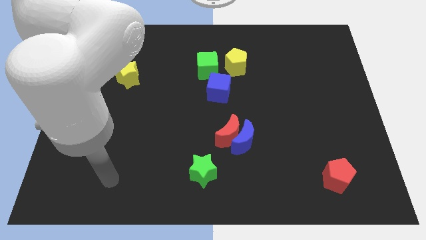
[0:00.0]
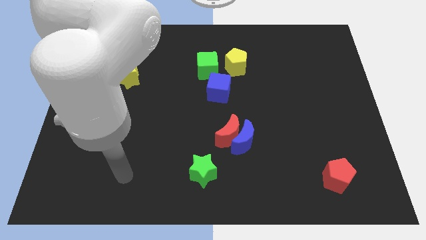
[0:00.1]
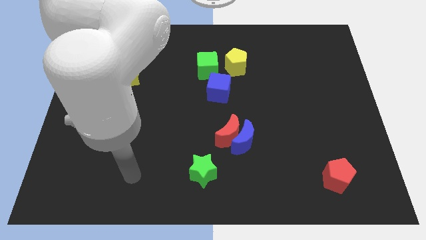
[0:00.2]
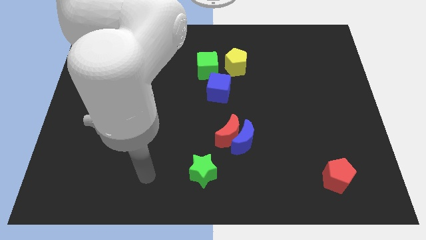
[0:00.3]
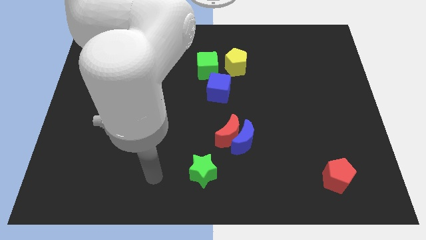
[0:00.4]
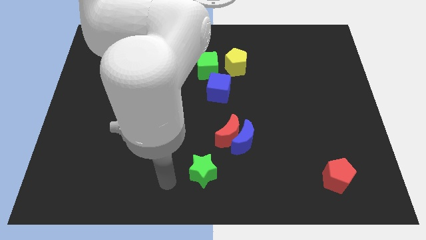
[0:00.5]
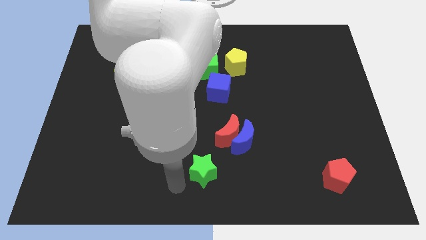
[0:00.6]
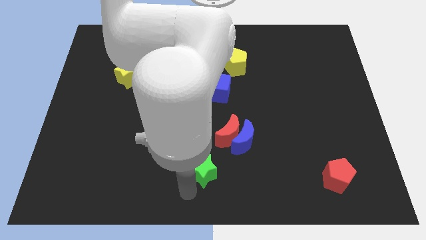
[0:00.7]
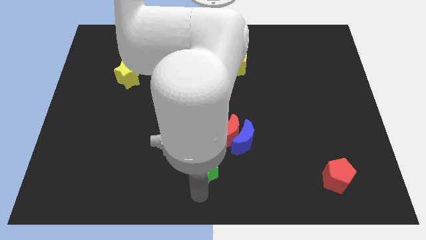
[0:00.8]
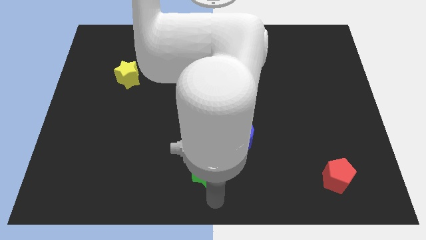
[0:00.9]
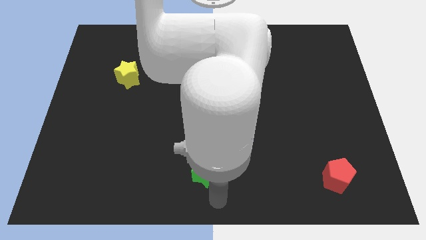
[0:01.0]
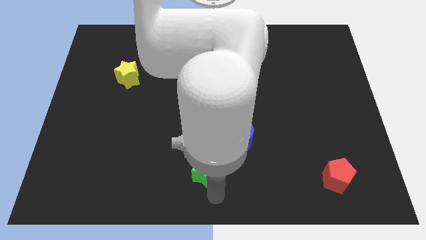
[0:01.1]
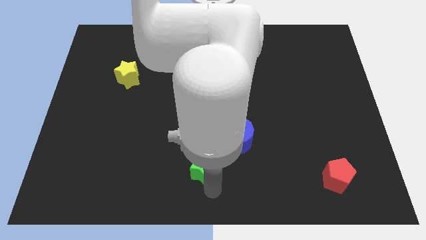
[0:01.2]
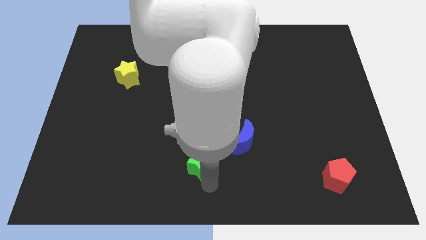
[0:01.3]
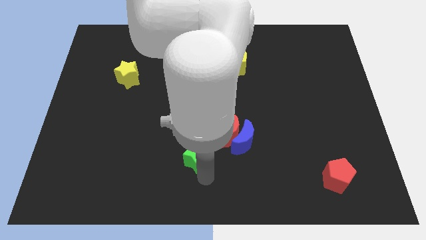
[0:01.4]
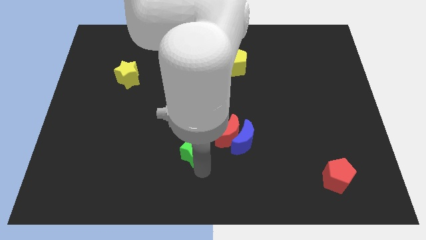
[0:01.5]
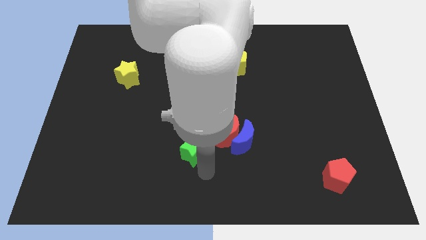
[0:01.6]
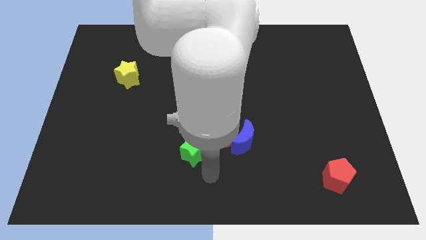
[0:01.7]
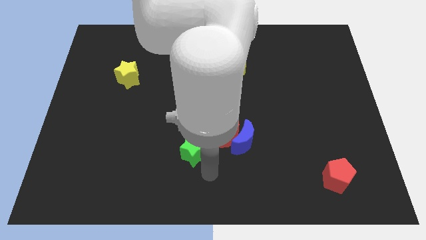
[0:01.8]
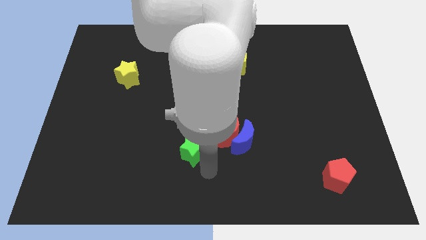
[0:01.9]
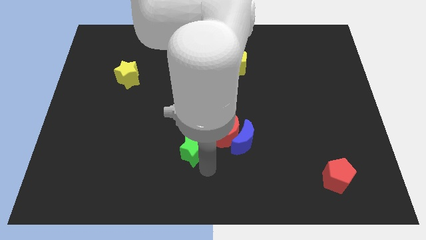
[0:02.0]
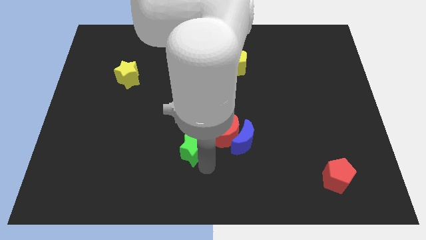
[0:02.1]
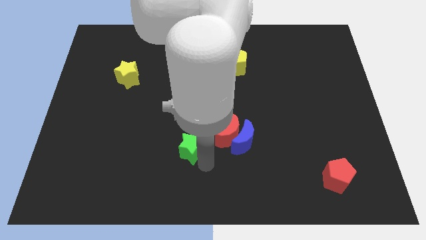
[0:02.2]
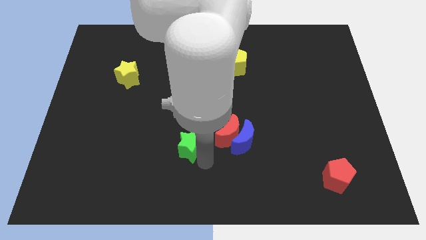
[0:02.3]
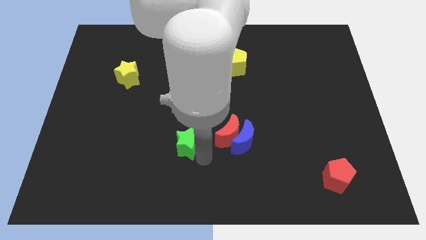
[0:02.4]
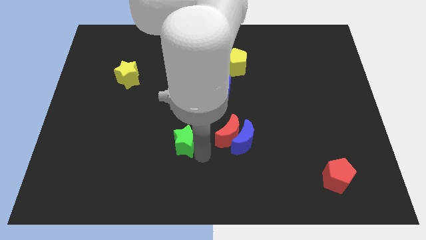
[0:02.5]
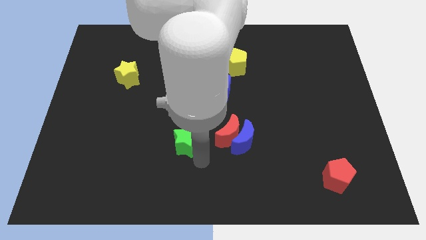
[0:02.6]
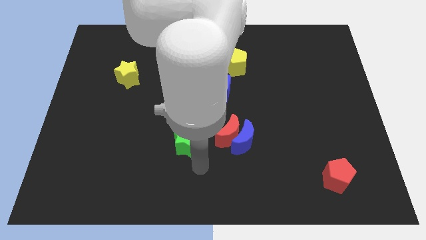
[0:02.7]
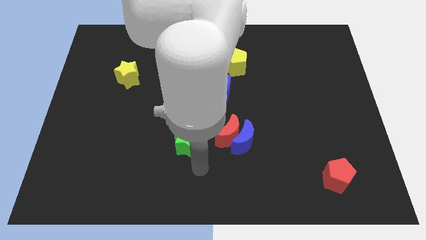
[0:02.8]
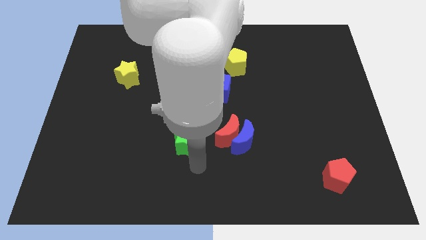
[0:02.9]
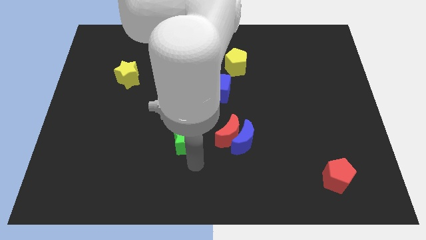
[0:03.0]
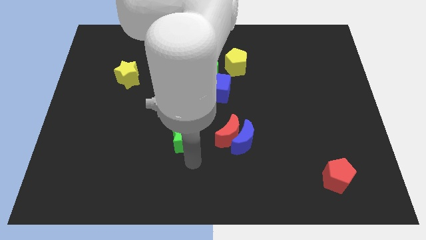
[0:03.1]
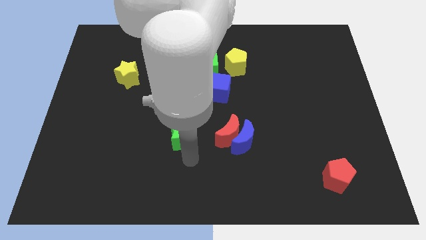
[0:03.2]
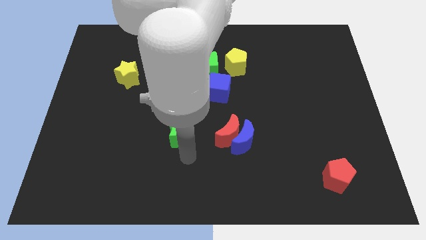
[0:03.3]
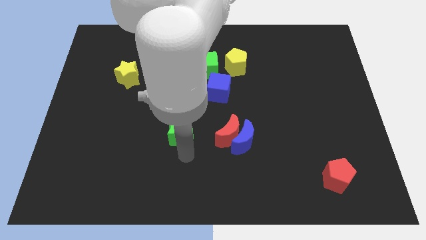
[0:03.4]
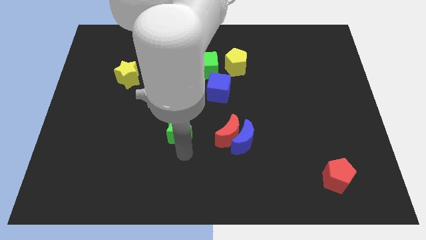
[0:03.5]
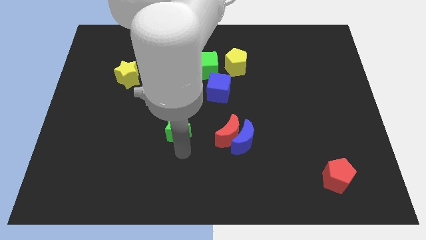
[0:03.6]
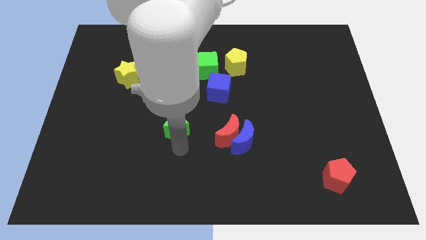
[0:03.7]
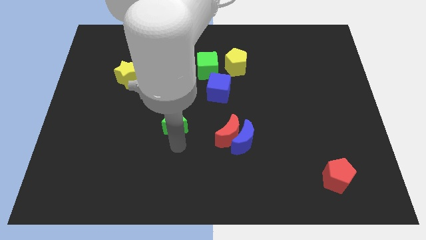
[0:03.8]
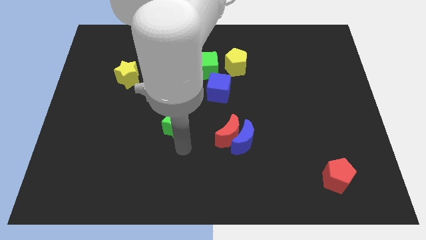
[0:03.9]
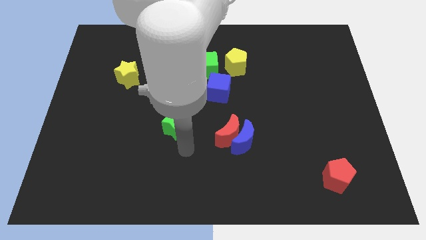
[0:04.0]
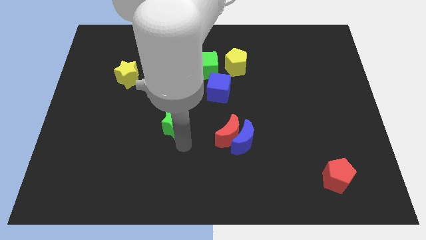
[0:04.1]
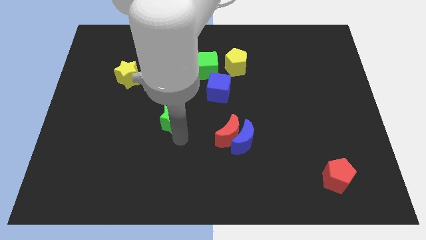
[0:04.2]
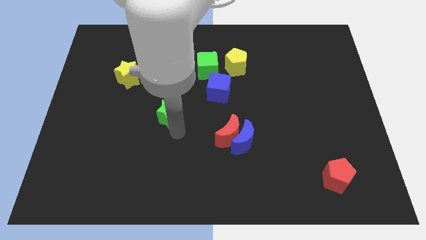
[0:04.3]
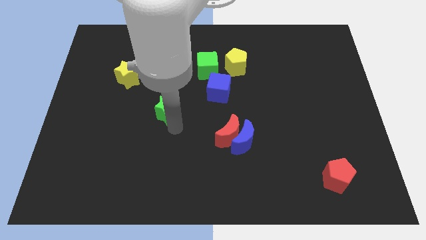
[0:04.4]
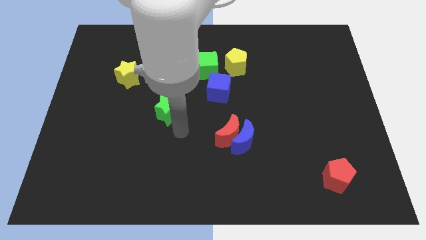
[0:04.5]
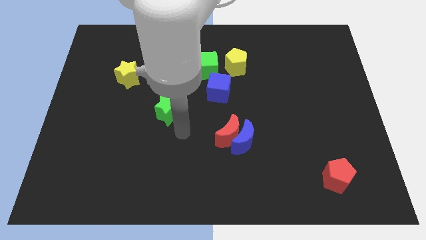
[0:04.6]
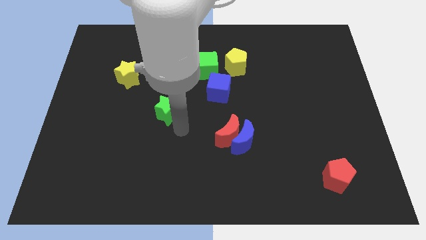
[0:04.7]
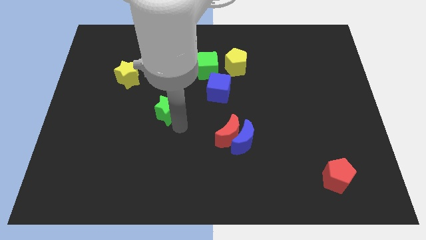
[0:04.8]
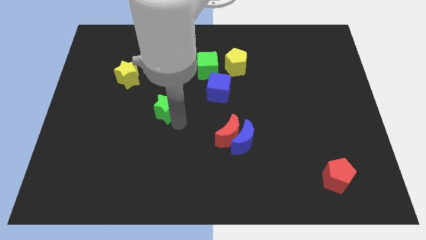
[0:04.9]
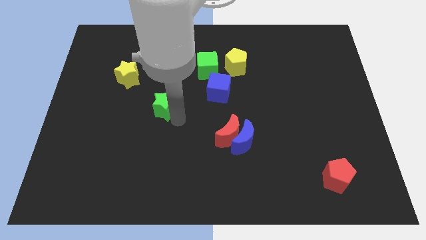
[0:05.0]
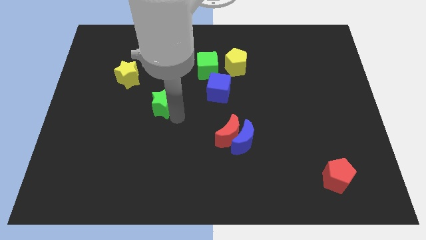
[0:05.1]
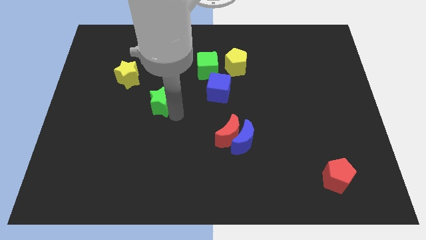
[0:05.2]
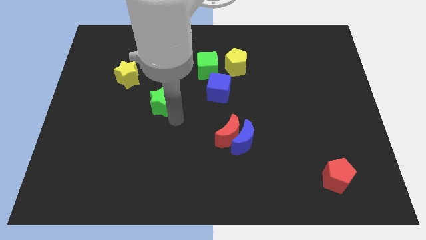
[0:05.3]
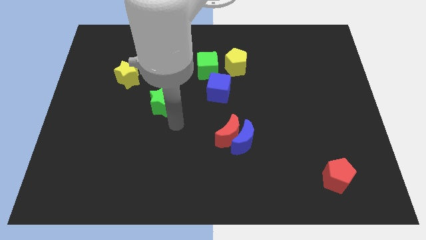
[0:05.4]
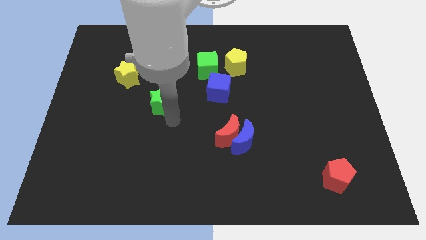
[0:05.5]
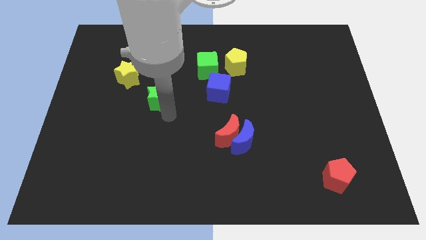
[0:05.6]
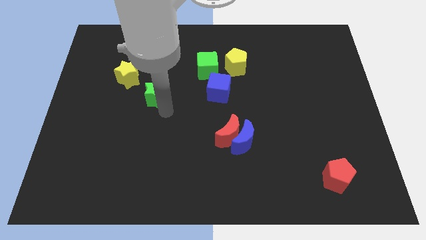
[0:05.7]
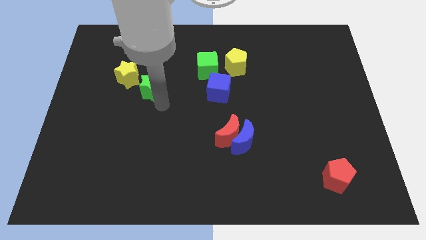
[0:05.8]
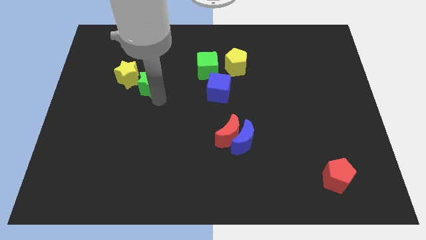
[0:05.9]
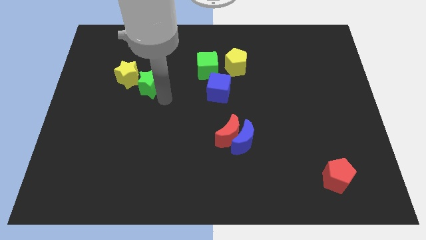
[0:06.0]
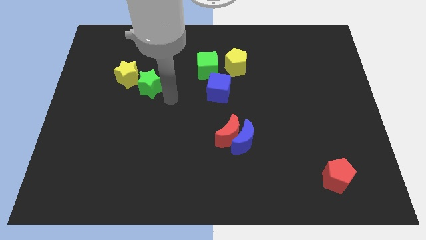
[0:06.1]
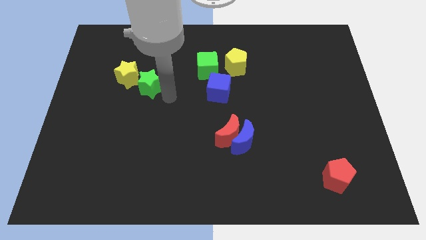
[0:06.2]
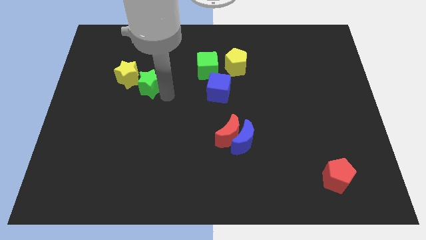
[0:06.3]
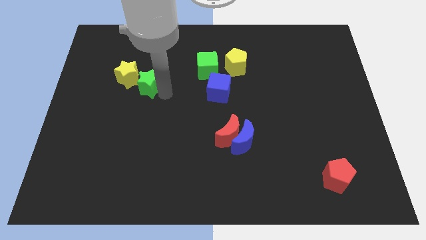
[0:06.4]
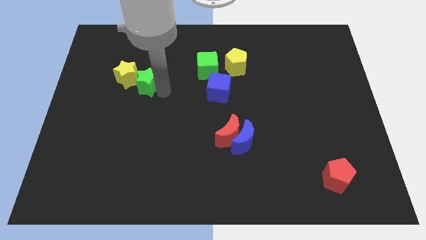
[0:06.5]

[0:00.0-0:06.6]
push the green star towards the yellow star
